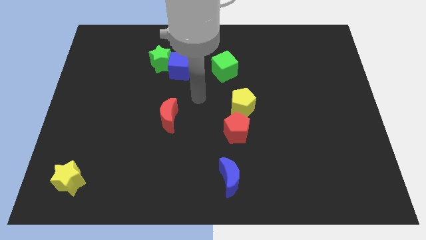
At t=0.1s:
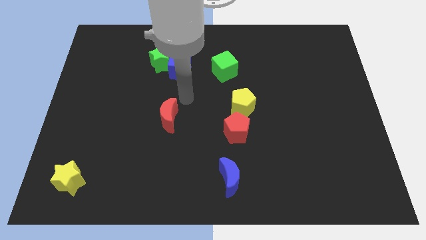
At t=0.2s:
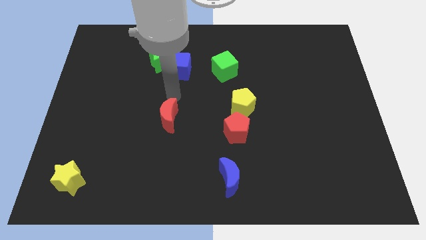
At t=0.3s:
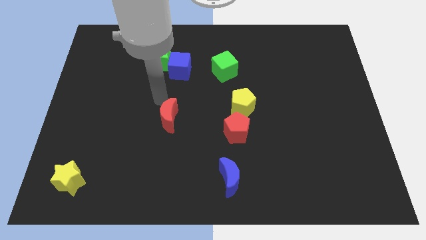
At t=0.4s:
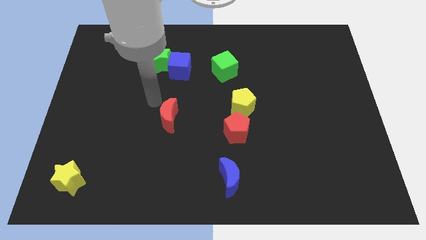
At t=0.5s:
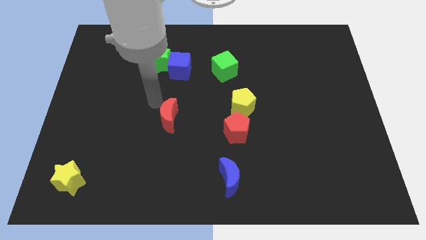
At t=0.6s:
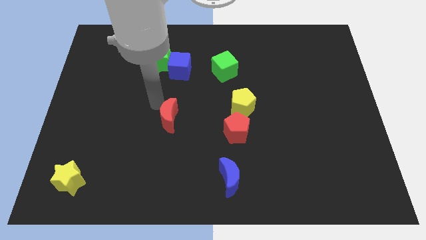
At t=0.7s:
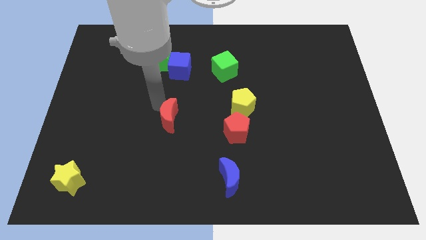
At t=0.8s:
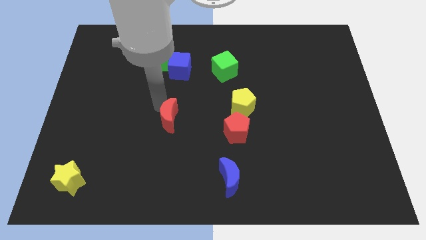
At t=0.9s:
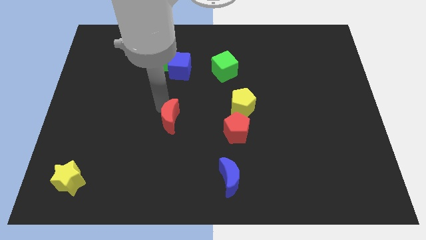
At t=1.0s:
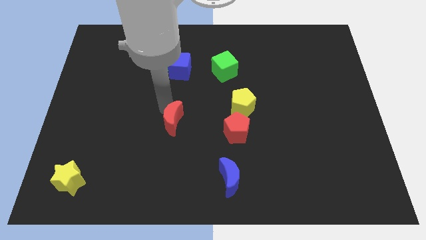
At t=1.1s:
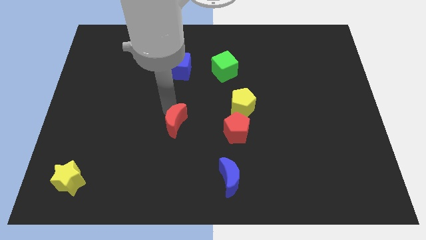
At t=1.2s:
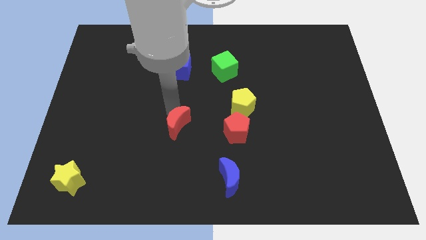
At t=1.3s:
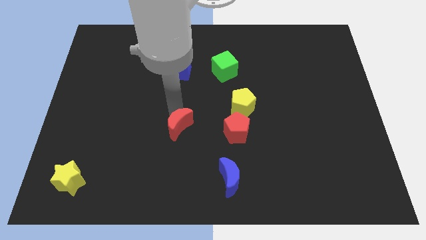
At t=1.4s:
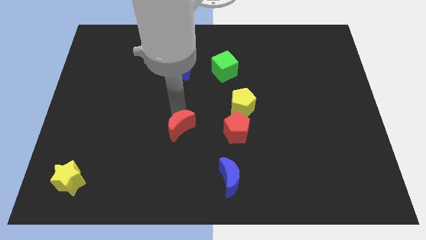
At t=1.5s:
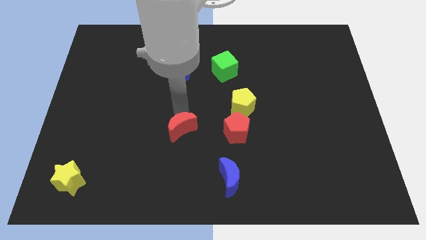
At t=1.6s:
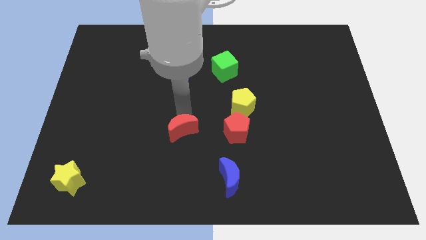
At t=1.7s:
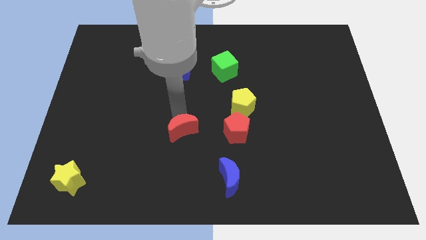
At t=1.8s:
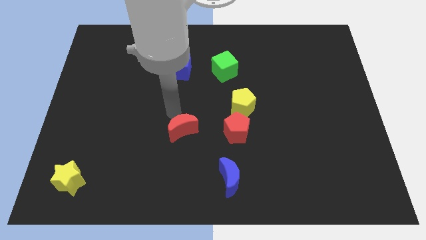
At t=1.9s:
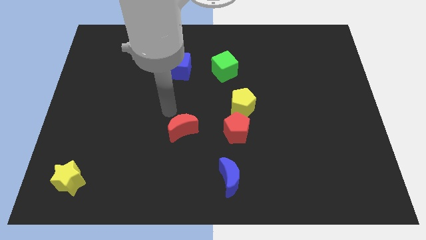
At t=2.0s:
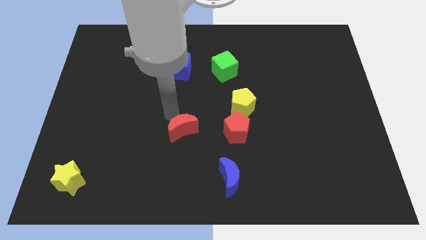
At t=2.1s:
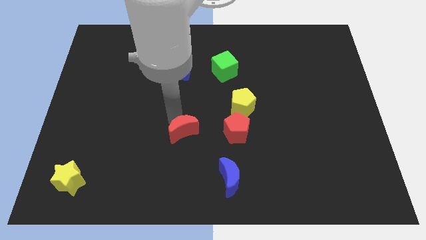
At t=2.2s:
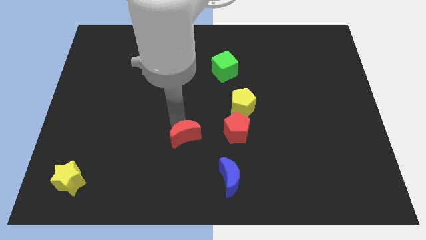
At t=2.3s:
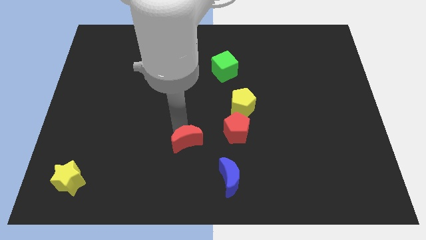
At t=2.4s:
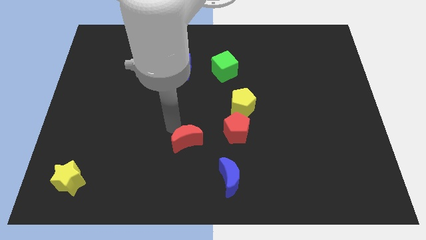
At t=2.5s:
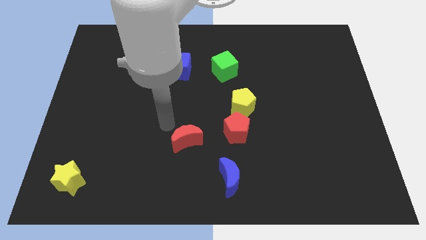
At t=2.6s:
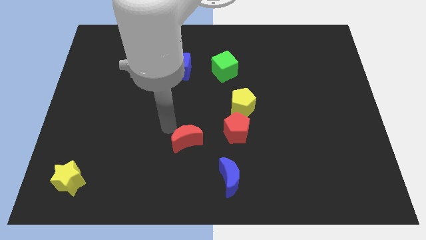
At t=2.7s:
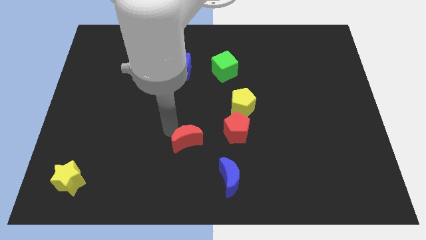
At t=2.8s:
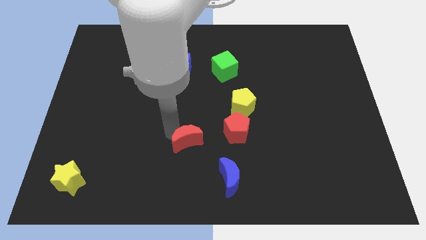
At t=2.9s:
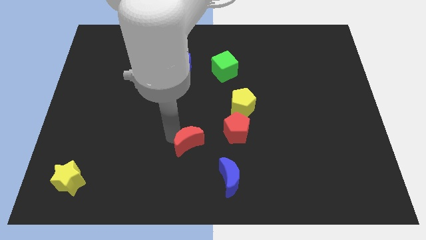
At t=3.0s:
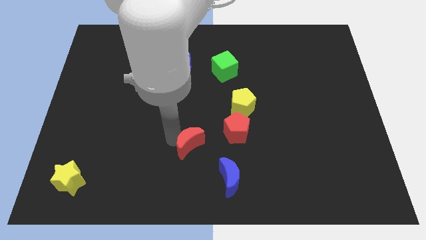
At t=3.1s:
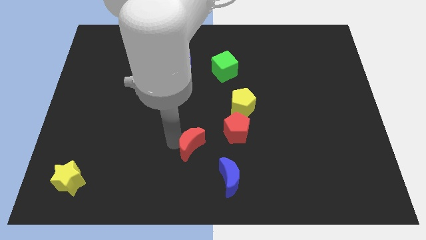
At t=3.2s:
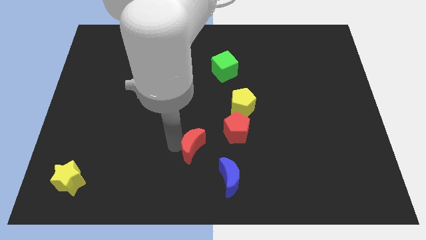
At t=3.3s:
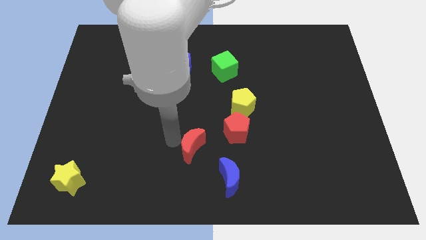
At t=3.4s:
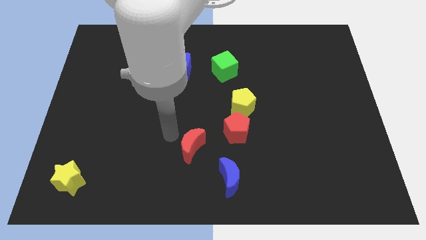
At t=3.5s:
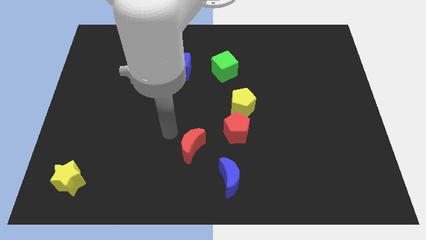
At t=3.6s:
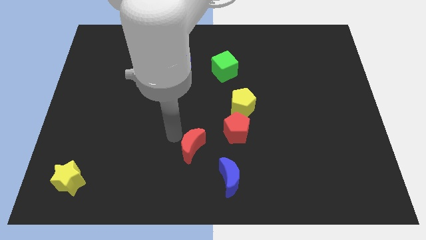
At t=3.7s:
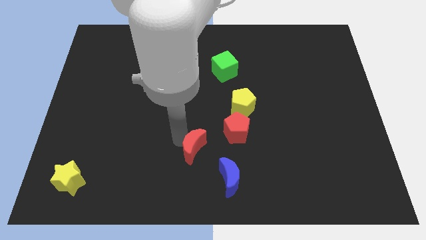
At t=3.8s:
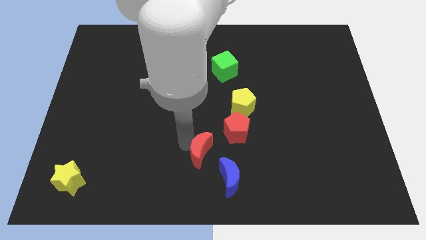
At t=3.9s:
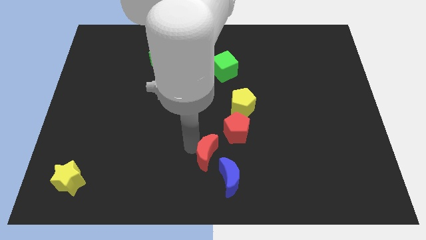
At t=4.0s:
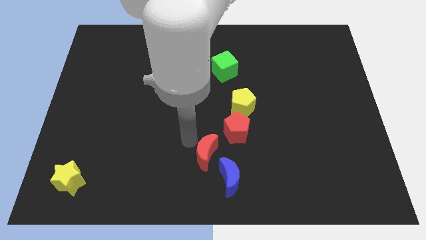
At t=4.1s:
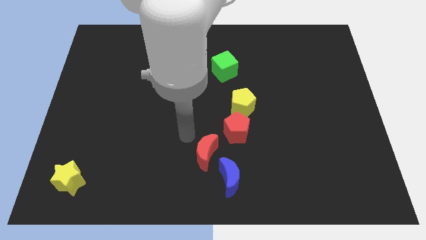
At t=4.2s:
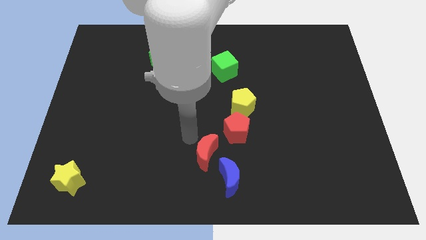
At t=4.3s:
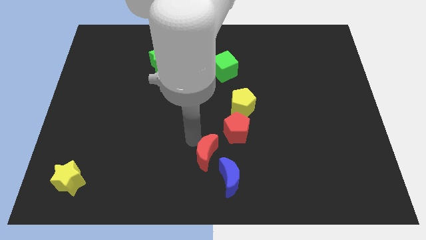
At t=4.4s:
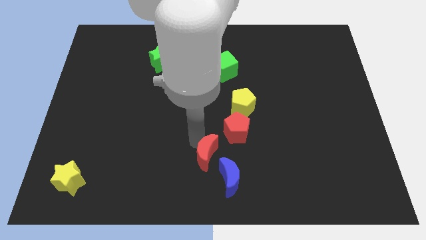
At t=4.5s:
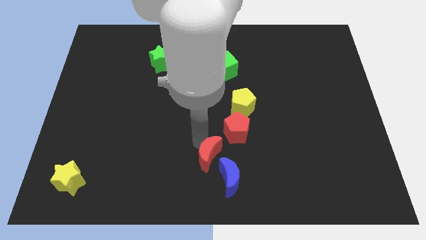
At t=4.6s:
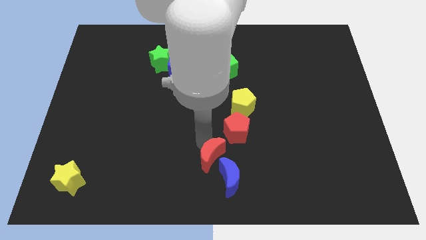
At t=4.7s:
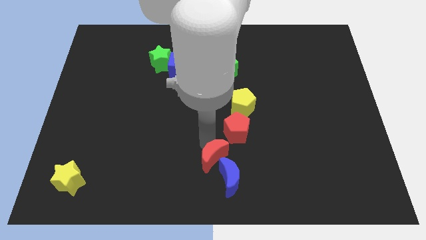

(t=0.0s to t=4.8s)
move the red moon to the blue moon

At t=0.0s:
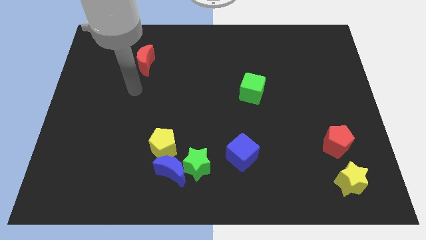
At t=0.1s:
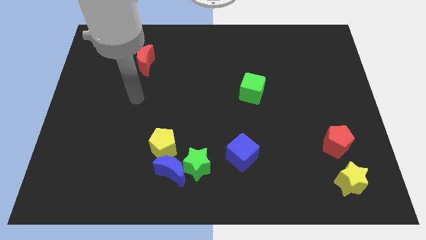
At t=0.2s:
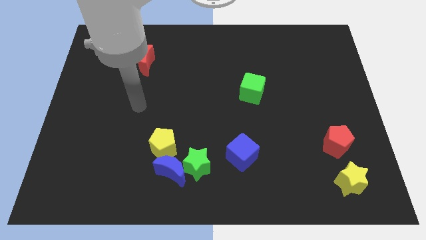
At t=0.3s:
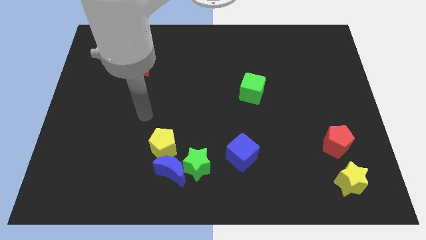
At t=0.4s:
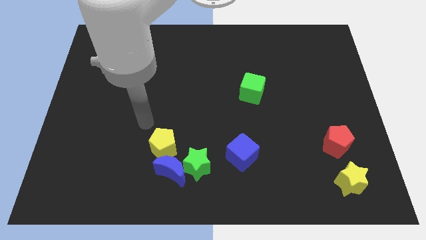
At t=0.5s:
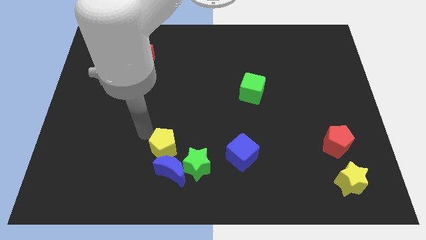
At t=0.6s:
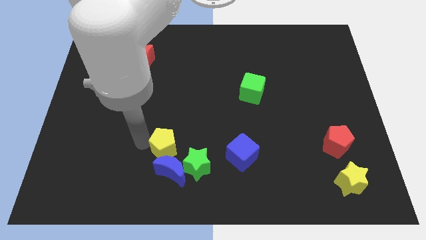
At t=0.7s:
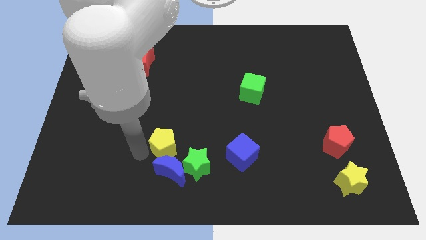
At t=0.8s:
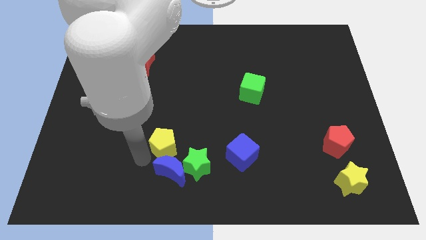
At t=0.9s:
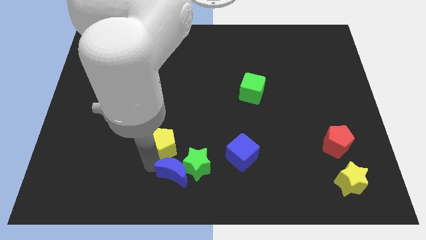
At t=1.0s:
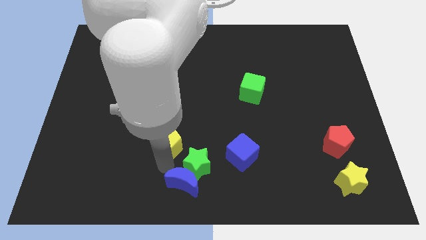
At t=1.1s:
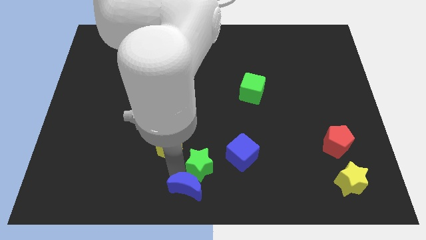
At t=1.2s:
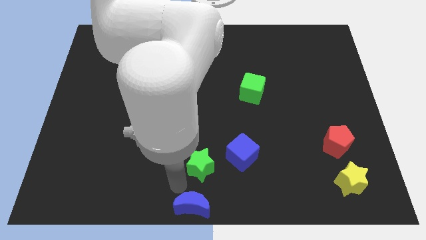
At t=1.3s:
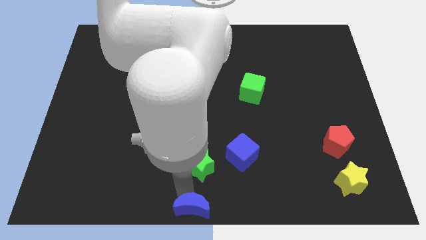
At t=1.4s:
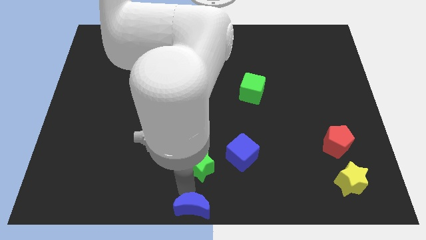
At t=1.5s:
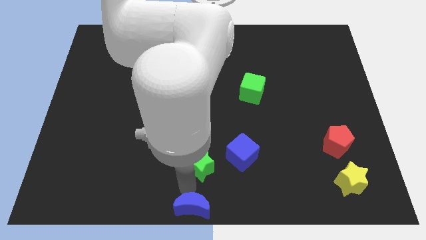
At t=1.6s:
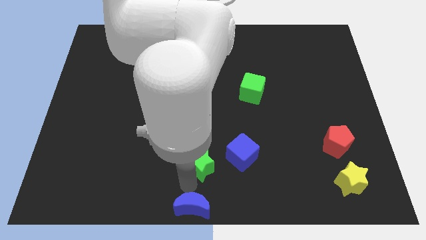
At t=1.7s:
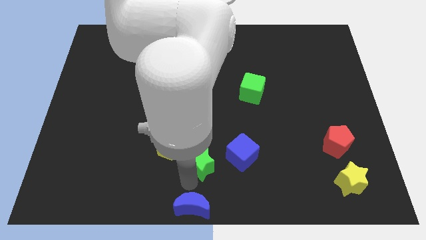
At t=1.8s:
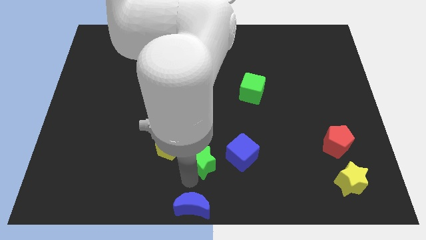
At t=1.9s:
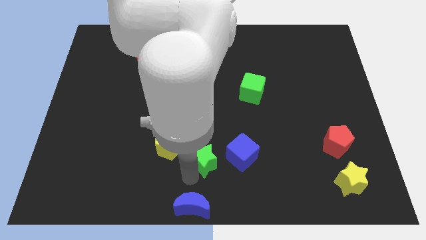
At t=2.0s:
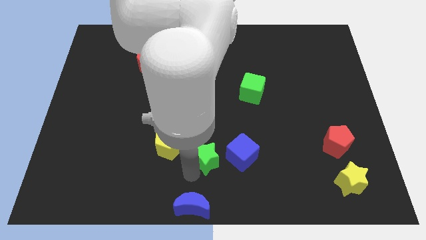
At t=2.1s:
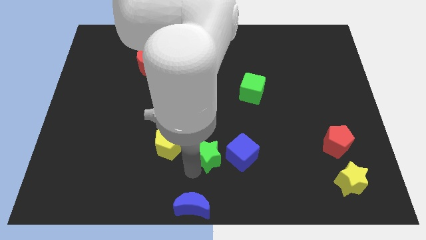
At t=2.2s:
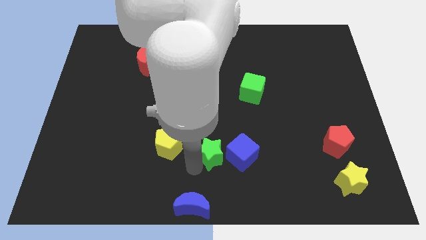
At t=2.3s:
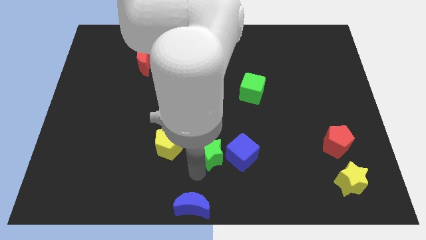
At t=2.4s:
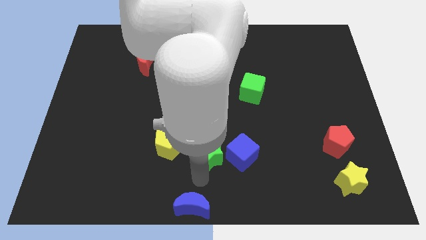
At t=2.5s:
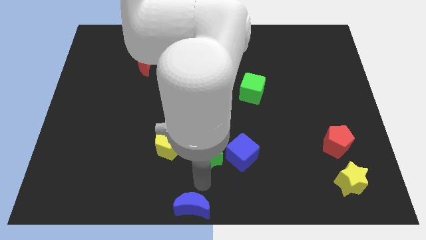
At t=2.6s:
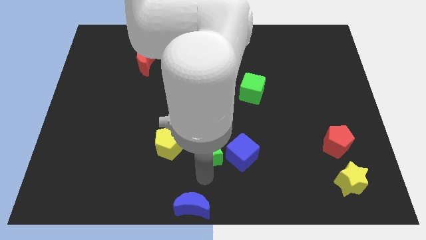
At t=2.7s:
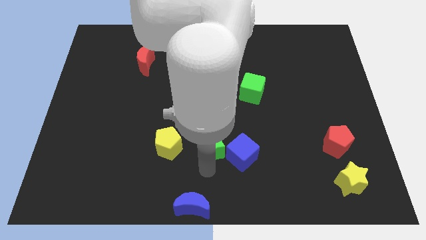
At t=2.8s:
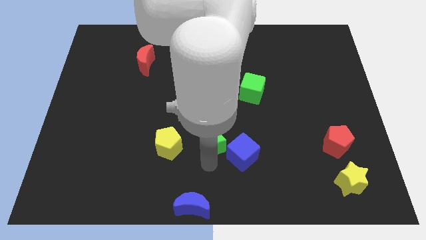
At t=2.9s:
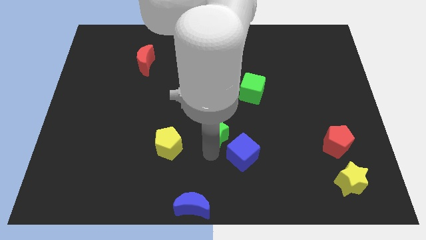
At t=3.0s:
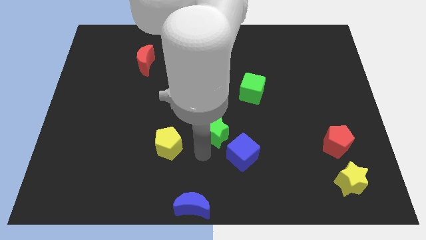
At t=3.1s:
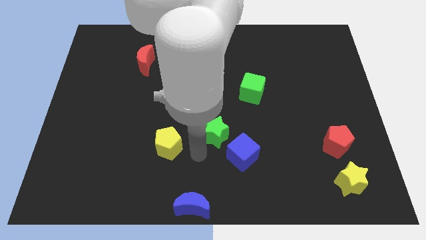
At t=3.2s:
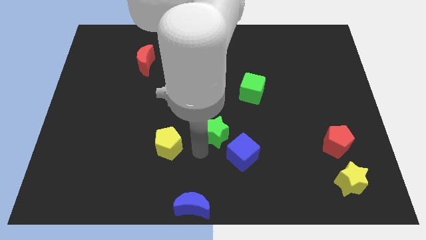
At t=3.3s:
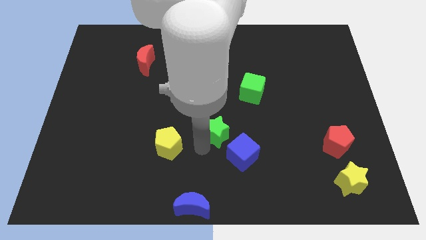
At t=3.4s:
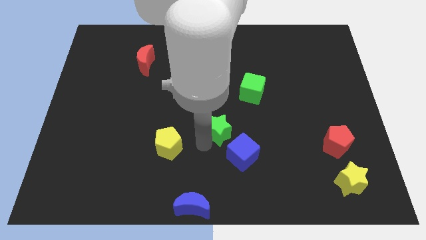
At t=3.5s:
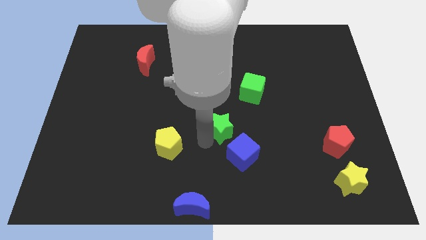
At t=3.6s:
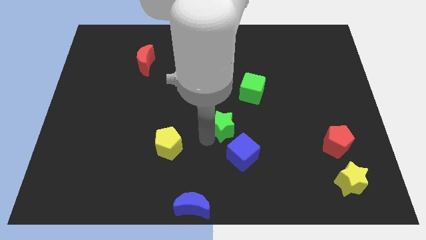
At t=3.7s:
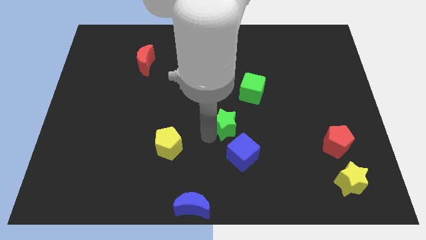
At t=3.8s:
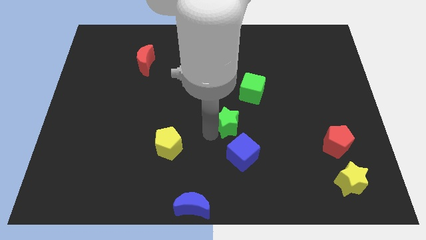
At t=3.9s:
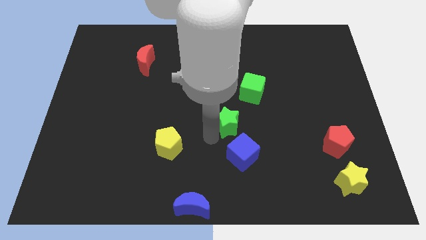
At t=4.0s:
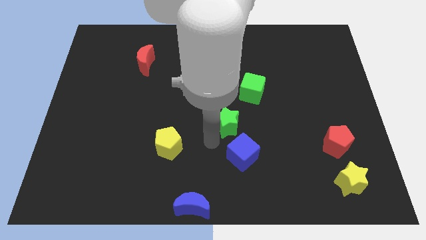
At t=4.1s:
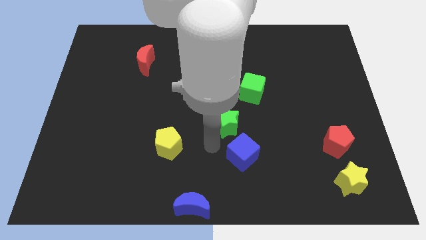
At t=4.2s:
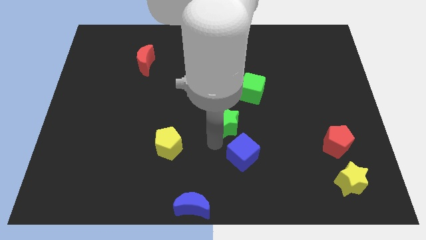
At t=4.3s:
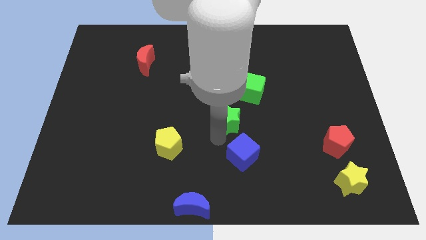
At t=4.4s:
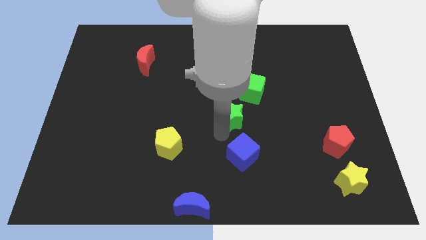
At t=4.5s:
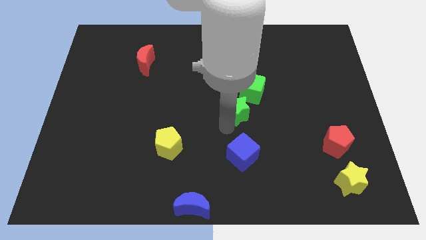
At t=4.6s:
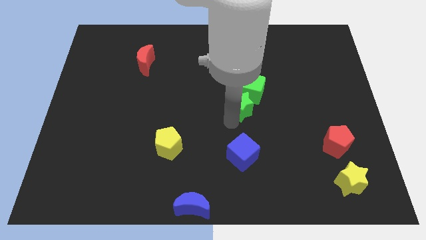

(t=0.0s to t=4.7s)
put the green star to the green cube
